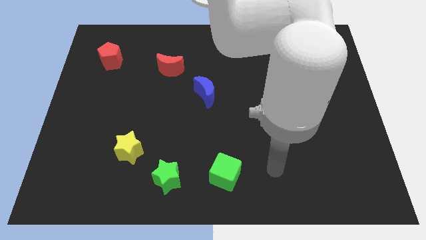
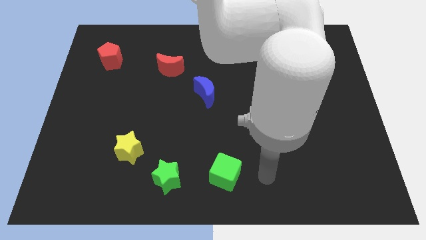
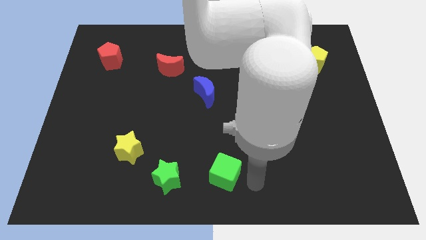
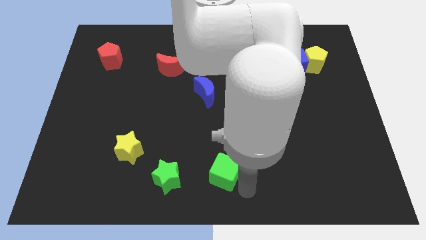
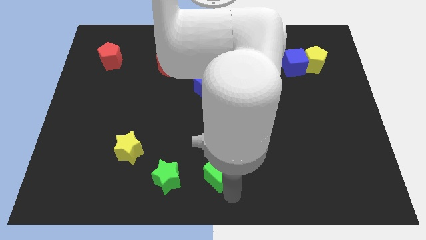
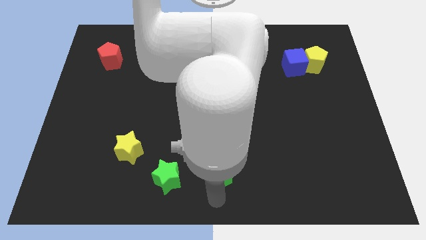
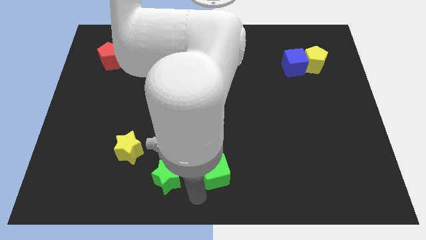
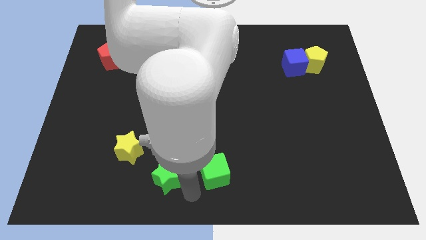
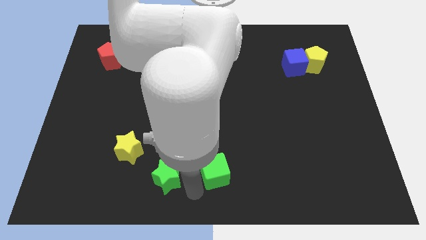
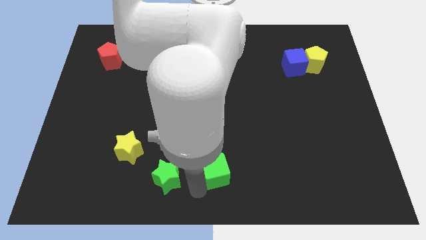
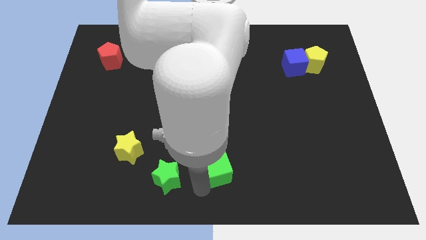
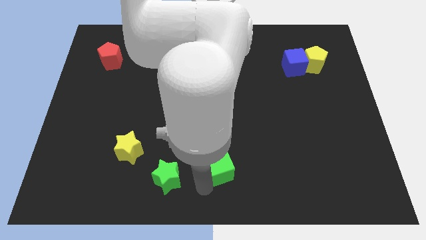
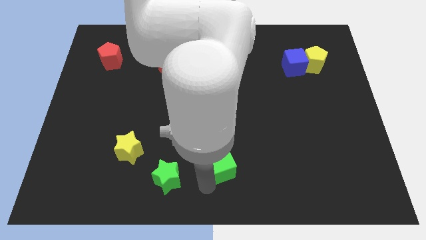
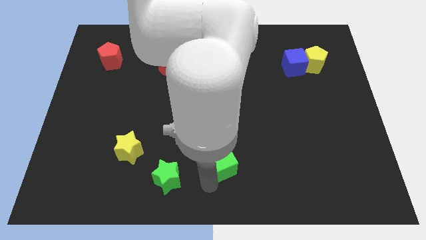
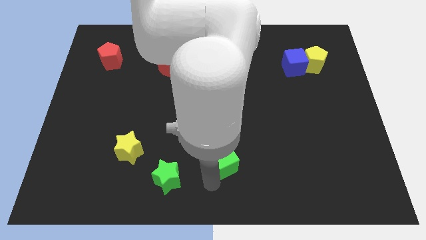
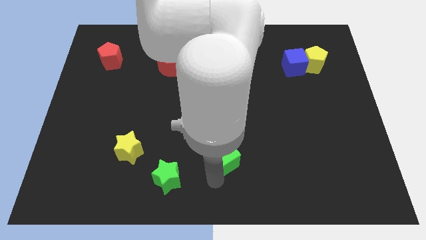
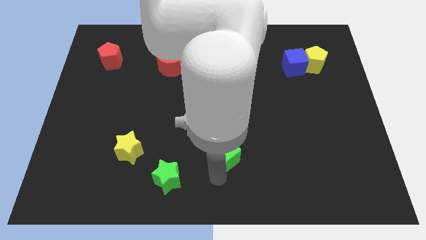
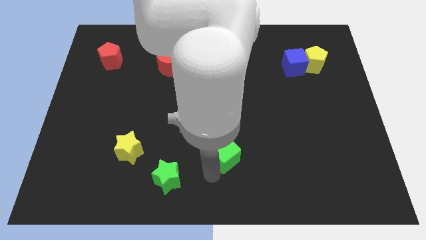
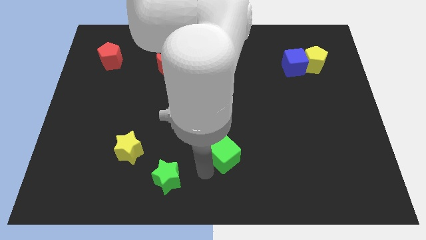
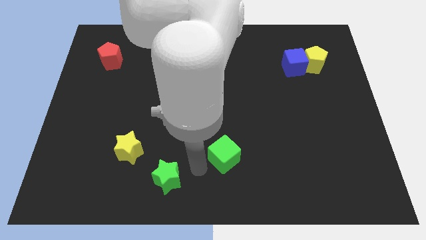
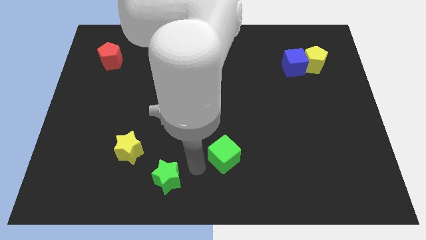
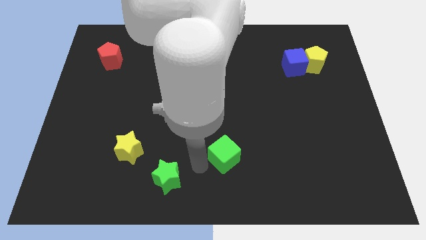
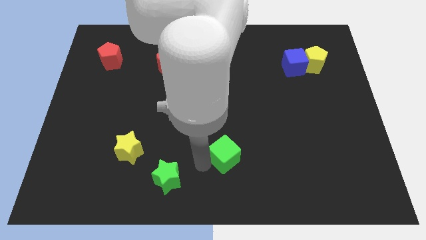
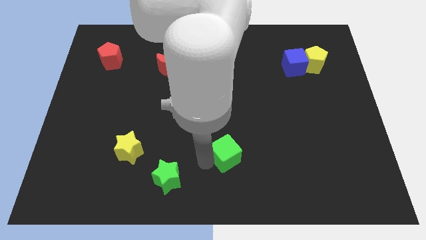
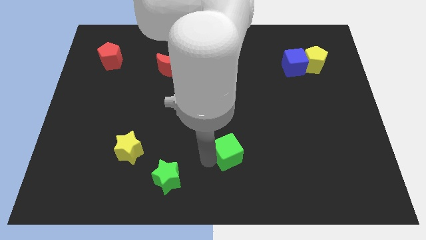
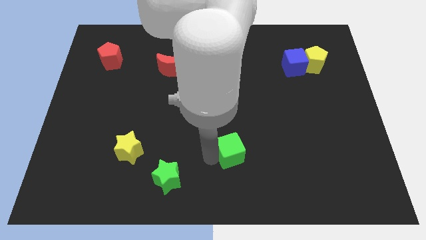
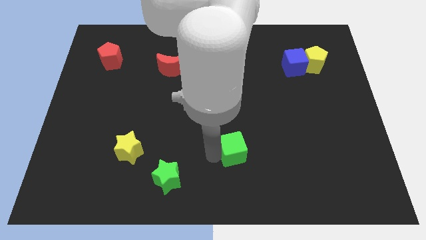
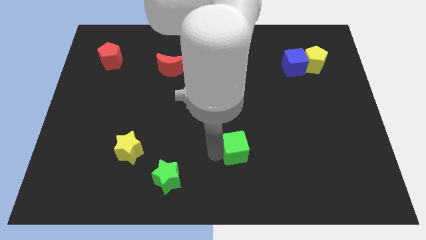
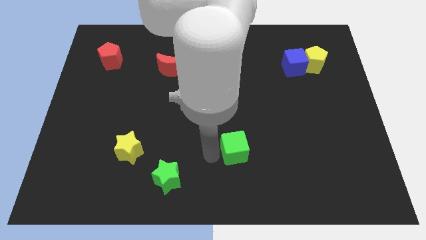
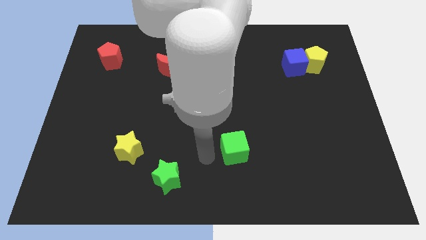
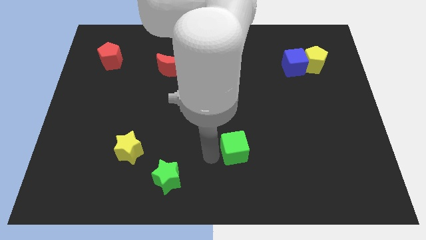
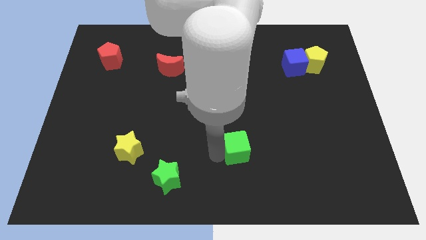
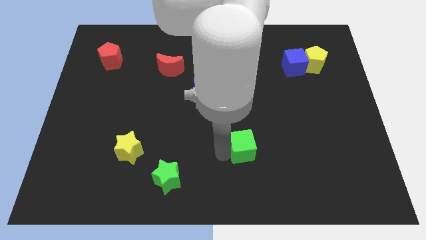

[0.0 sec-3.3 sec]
push the green cube up and then right somewhat

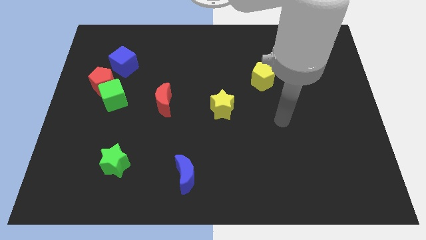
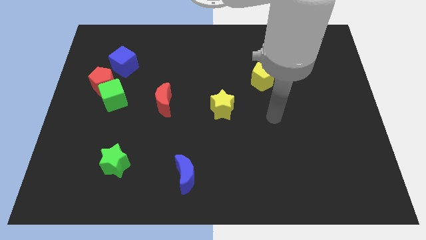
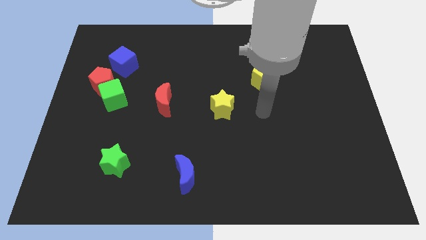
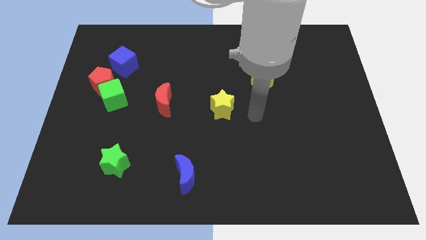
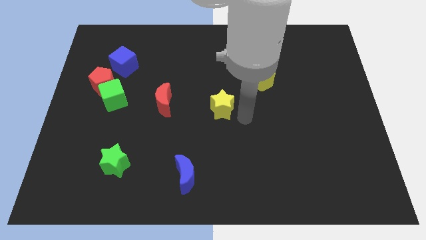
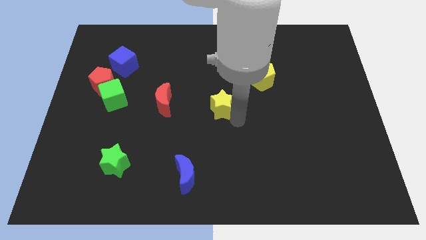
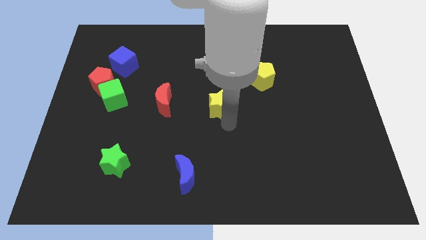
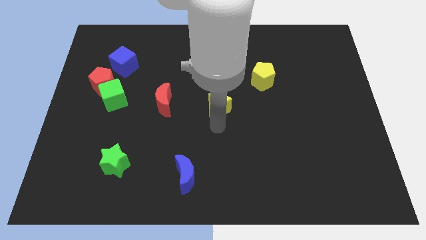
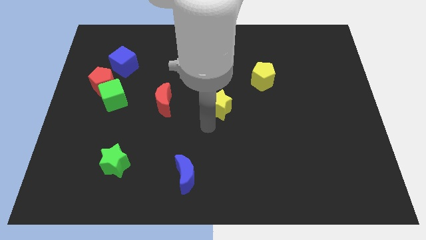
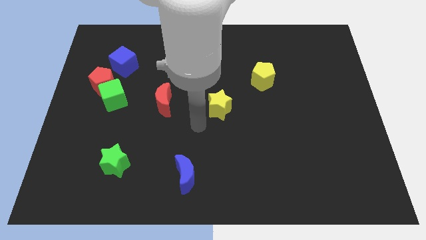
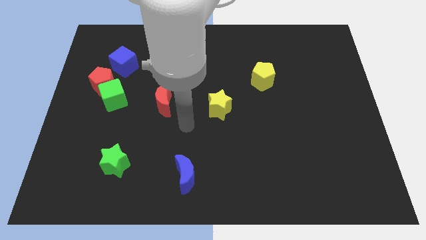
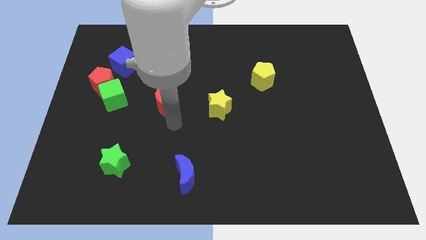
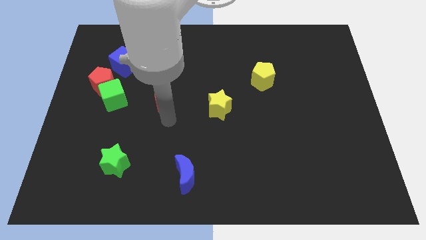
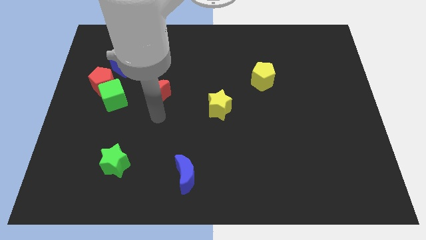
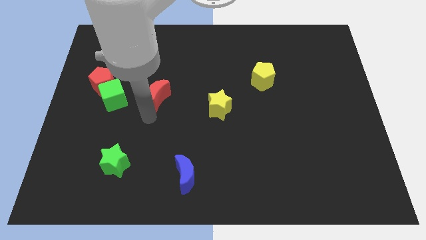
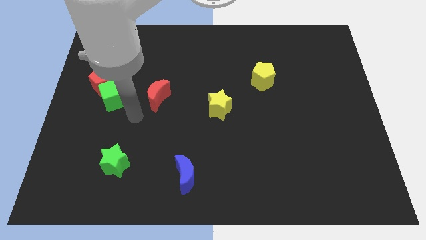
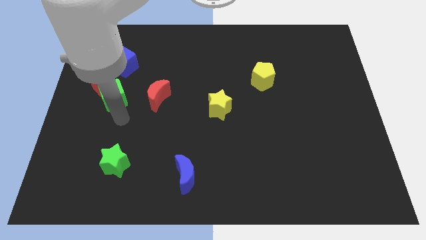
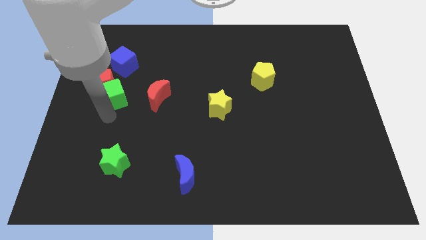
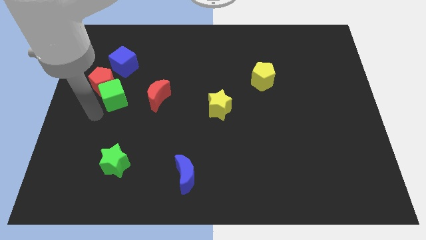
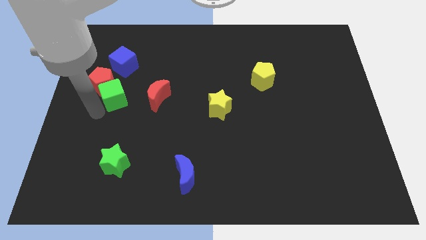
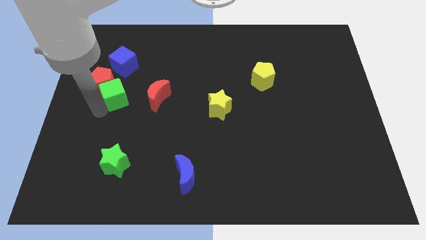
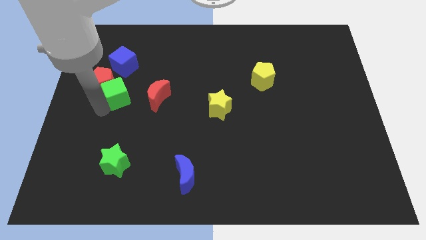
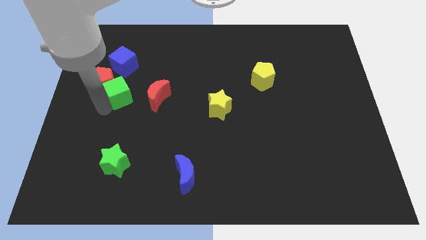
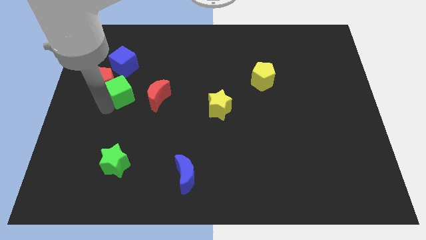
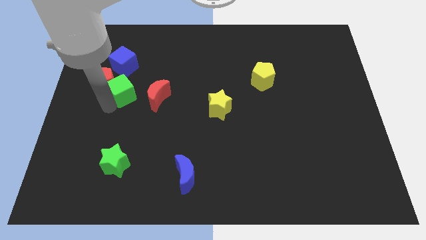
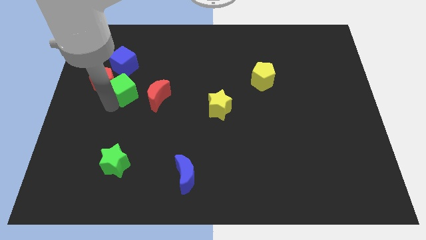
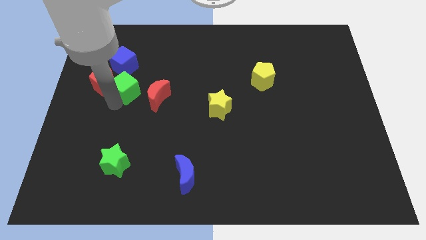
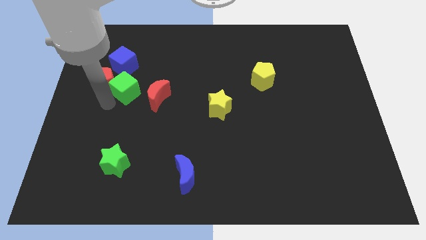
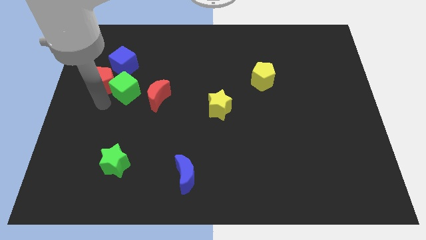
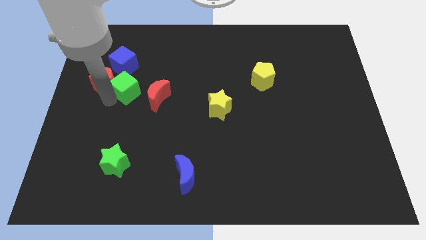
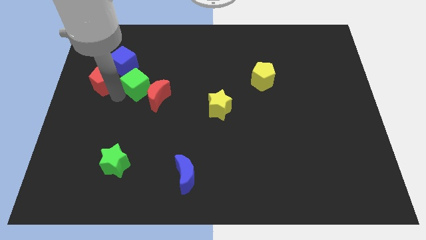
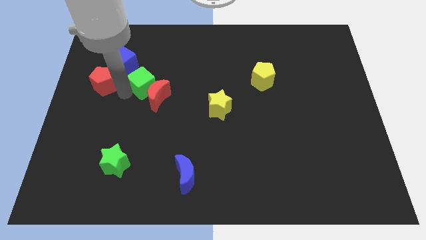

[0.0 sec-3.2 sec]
move the green cube slightly diagonally up and to the right

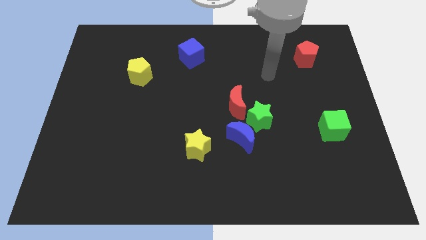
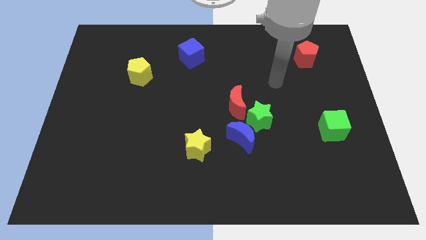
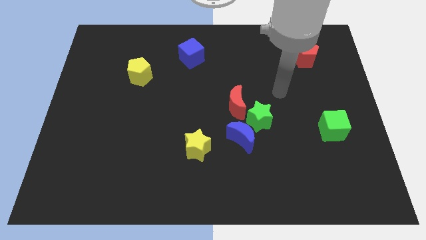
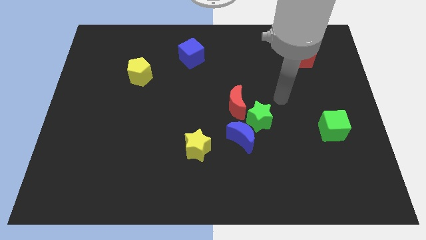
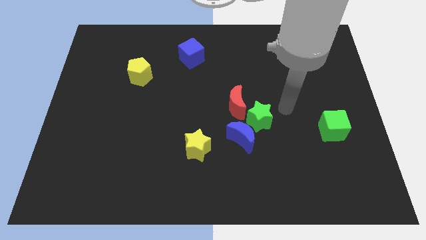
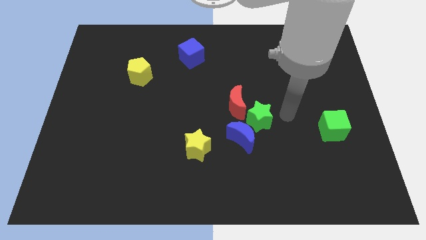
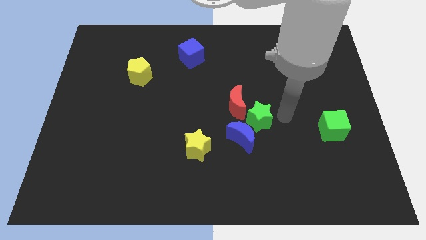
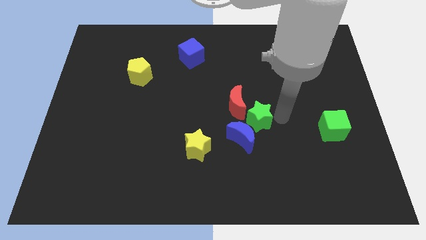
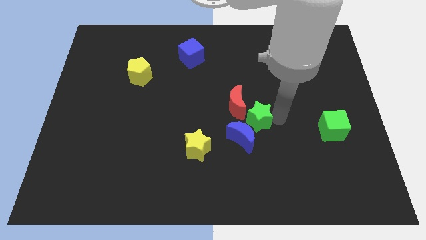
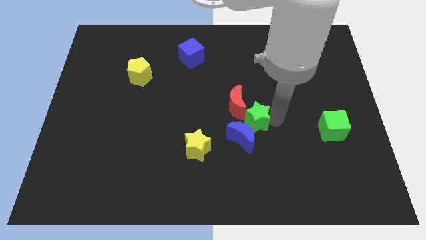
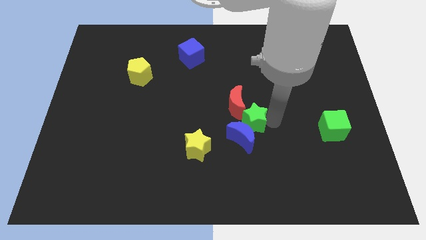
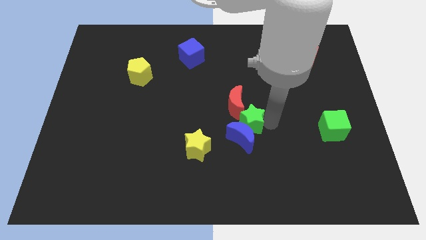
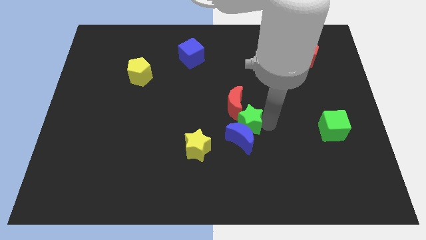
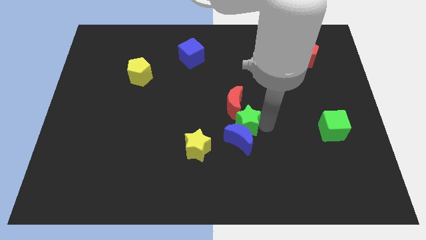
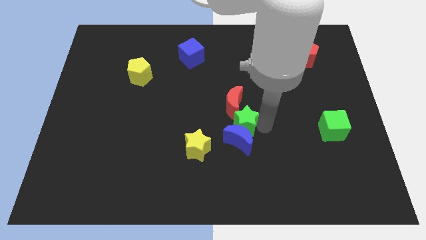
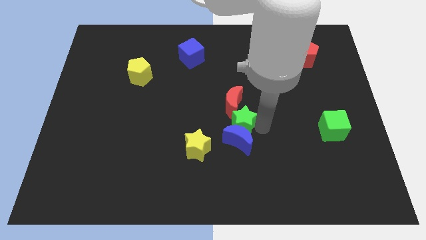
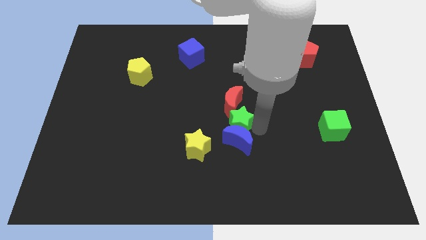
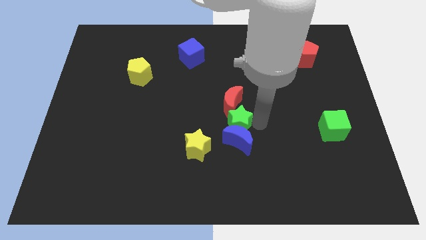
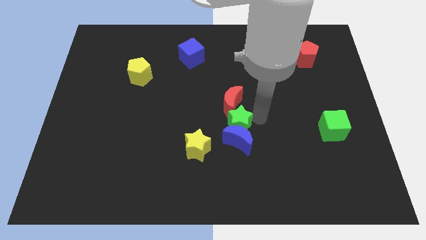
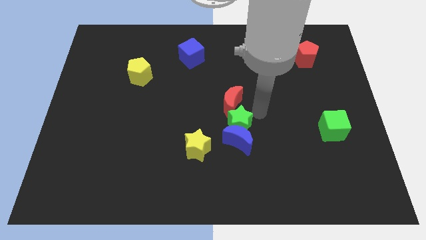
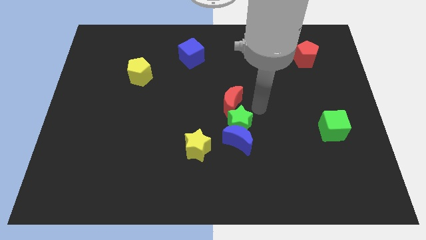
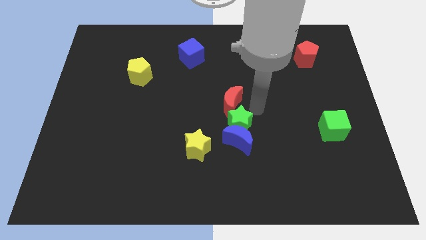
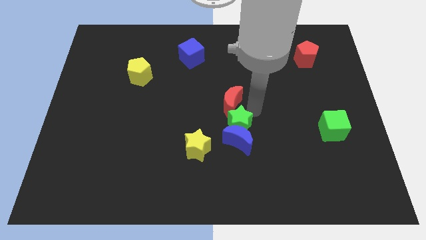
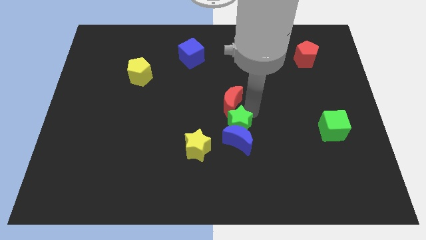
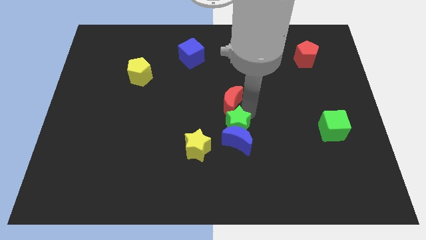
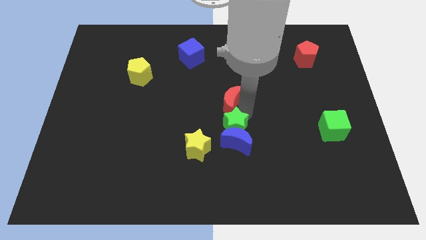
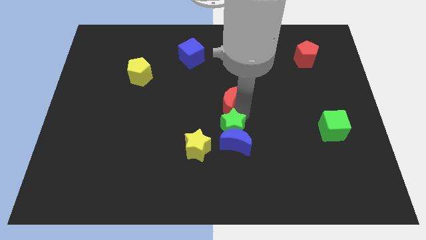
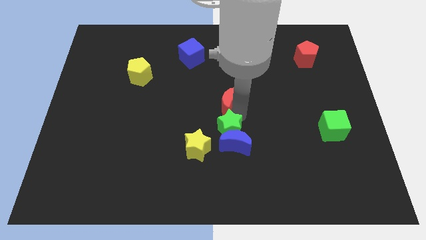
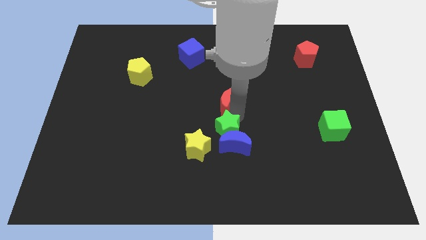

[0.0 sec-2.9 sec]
push the green star downwards and then to the left a bit
